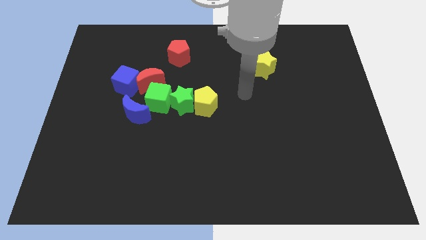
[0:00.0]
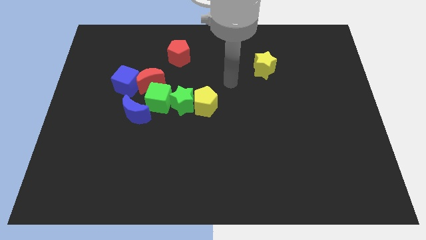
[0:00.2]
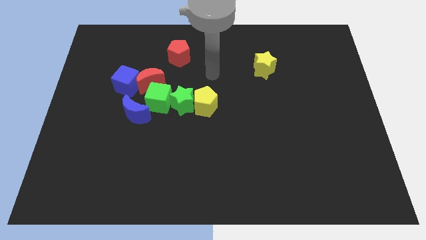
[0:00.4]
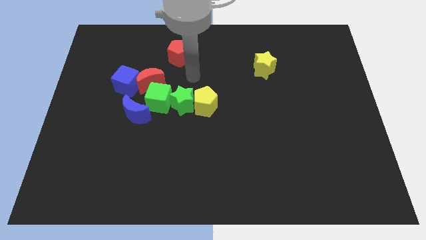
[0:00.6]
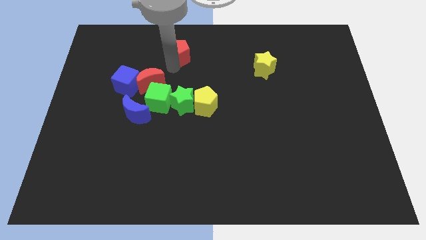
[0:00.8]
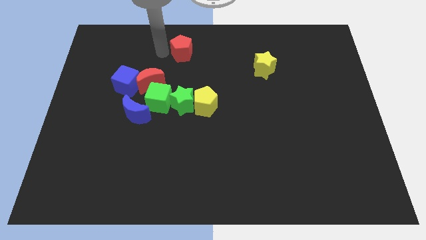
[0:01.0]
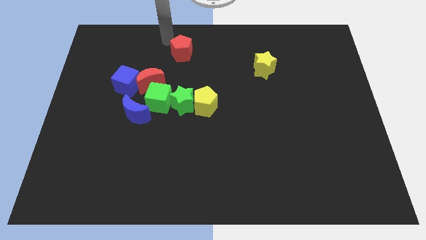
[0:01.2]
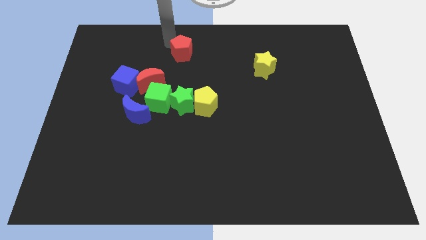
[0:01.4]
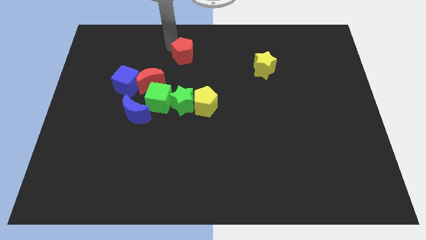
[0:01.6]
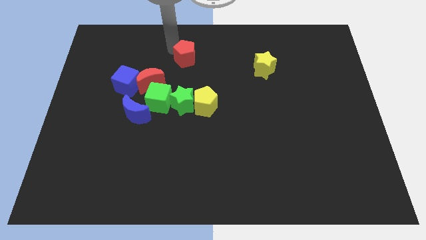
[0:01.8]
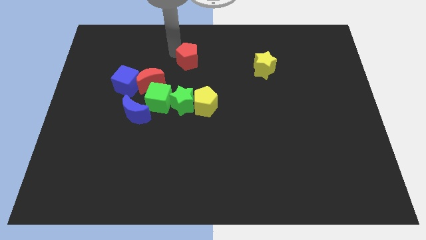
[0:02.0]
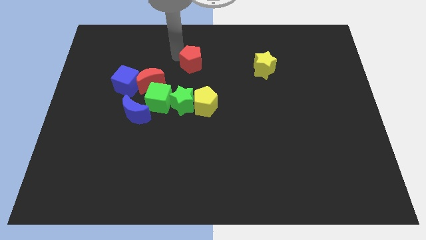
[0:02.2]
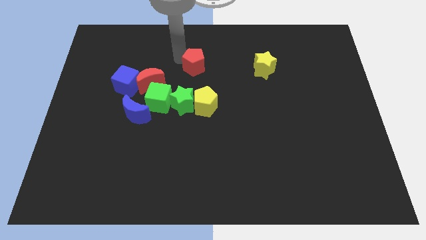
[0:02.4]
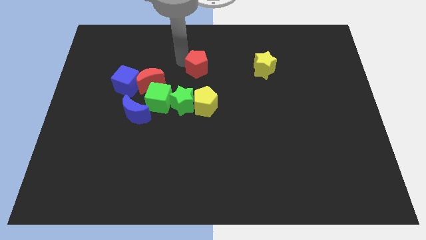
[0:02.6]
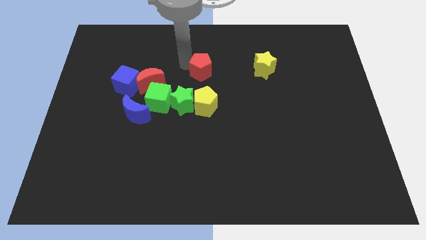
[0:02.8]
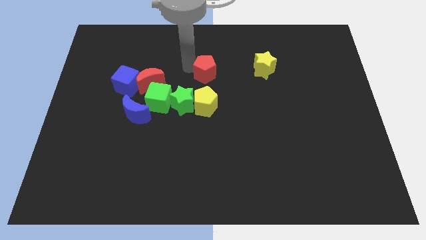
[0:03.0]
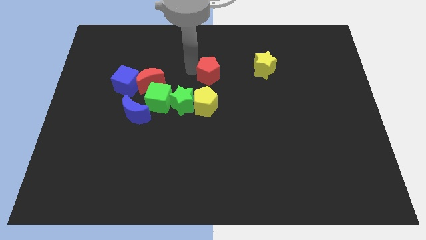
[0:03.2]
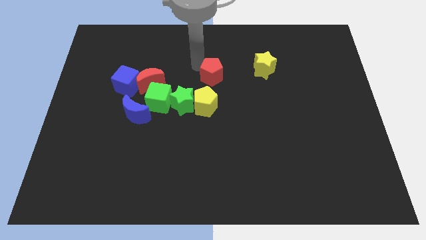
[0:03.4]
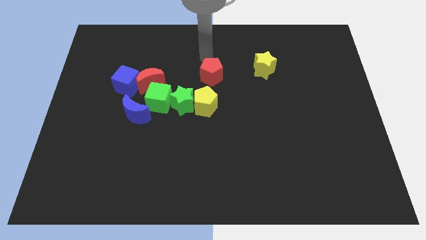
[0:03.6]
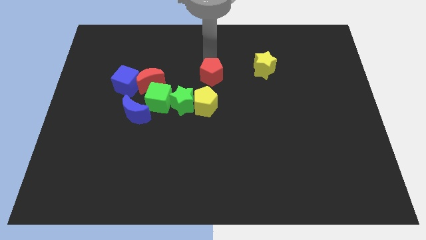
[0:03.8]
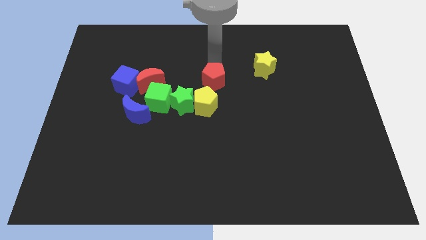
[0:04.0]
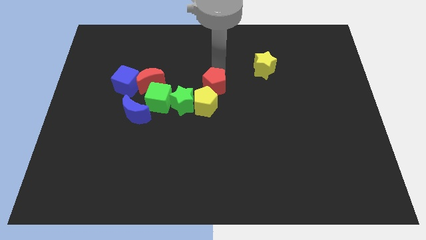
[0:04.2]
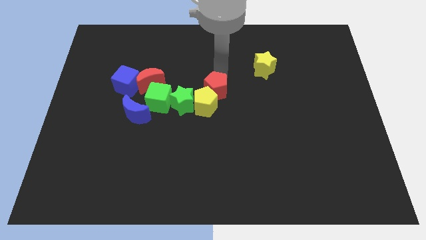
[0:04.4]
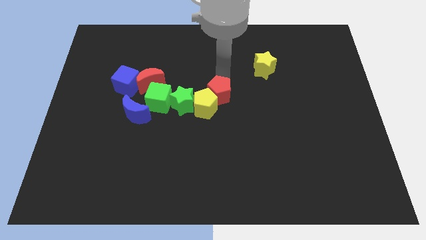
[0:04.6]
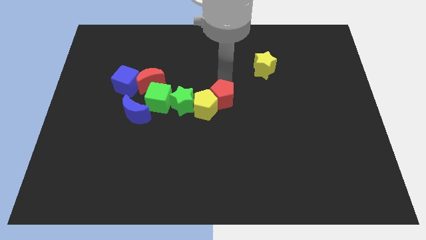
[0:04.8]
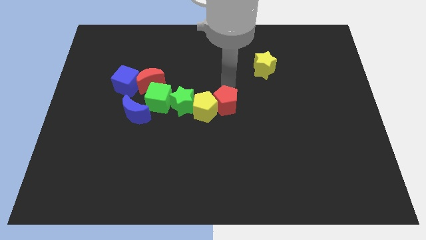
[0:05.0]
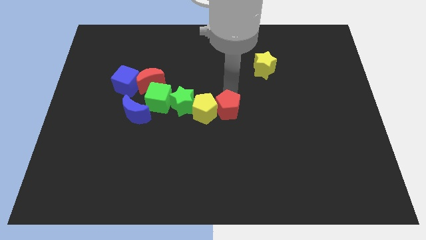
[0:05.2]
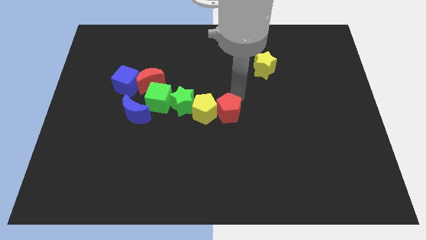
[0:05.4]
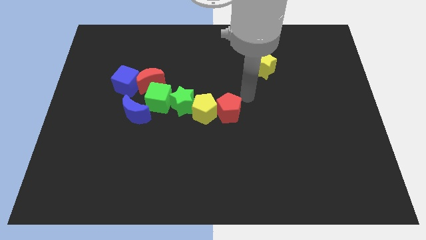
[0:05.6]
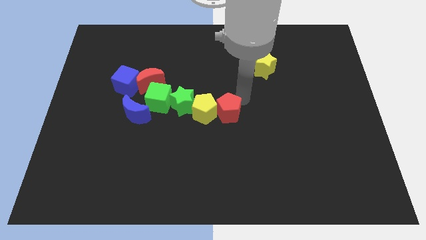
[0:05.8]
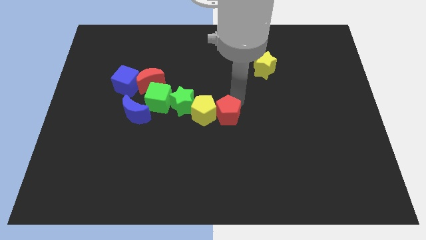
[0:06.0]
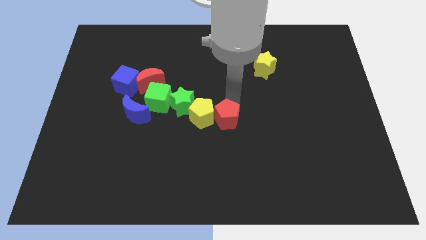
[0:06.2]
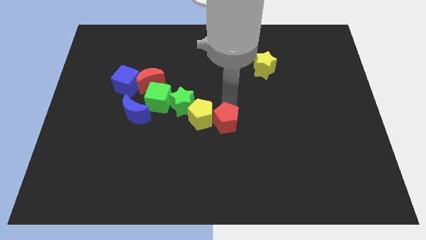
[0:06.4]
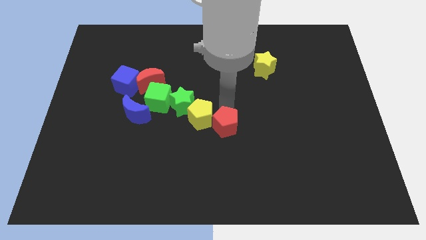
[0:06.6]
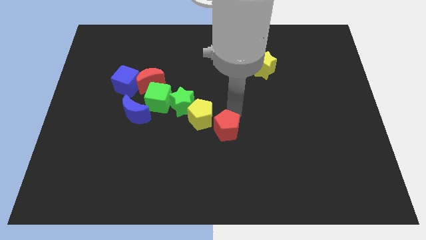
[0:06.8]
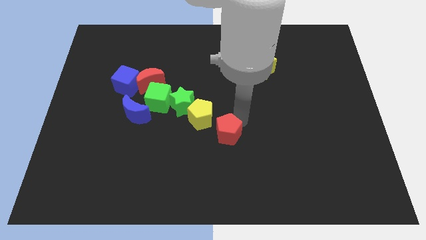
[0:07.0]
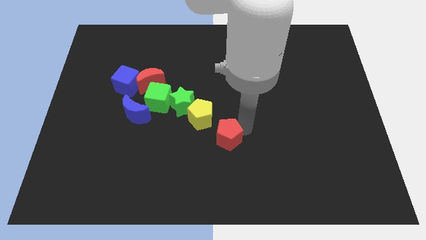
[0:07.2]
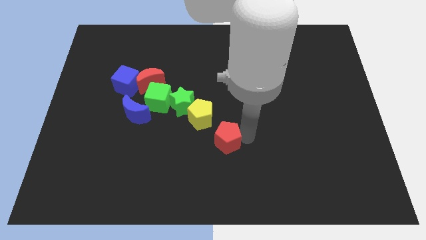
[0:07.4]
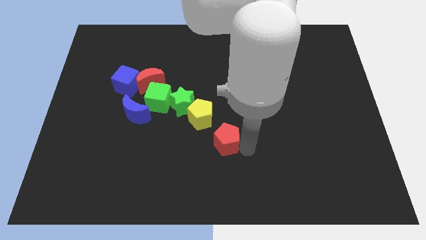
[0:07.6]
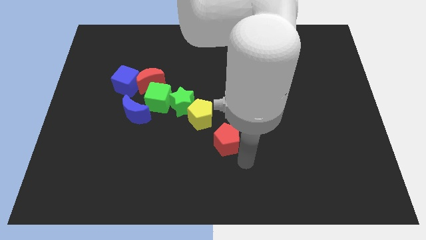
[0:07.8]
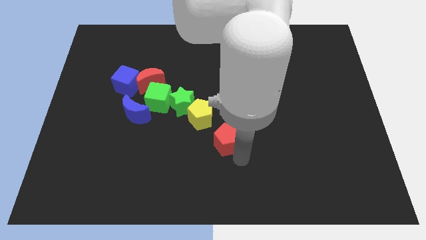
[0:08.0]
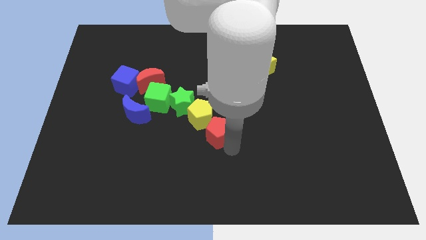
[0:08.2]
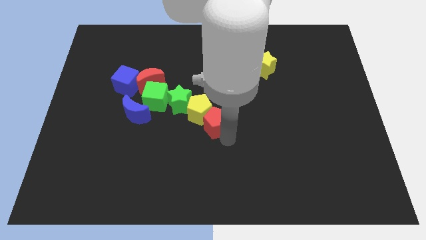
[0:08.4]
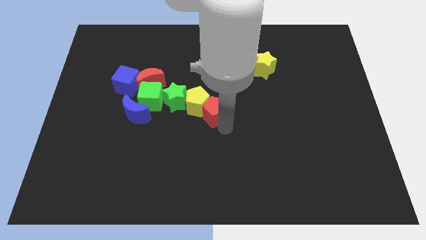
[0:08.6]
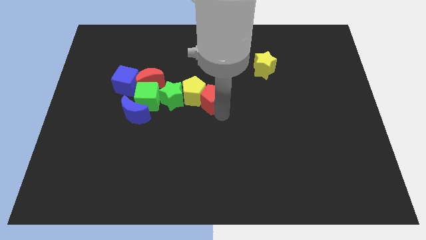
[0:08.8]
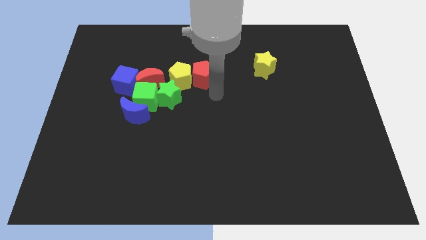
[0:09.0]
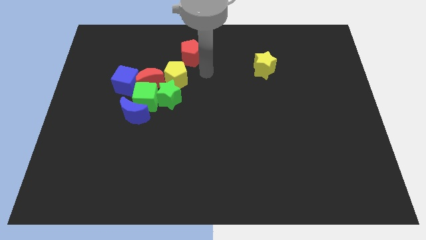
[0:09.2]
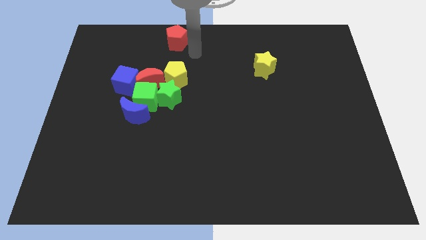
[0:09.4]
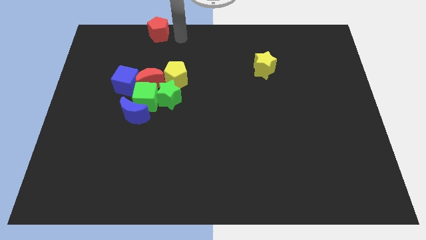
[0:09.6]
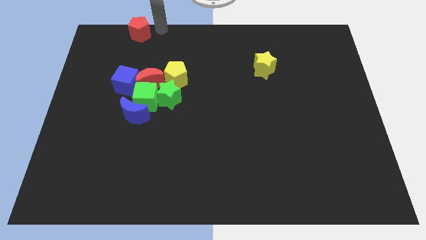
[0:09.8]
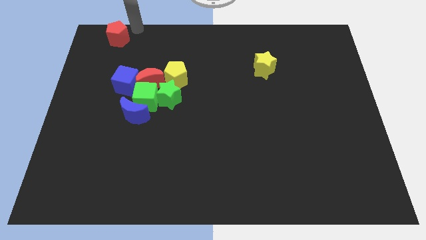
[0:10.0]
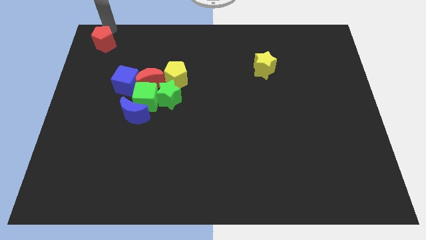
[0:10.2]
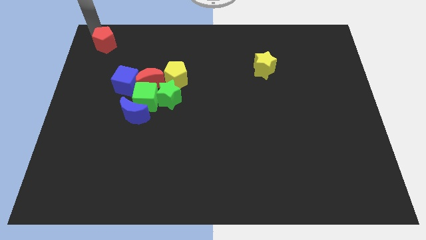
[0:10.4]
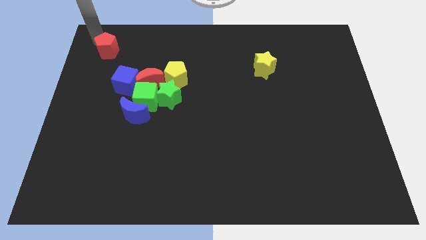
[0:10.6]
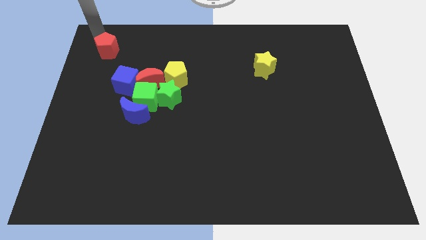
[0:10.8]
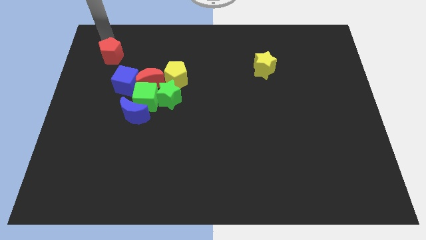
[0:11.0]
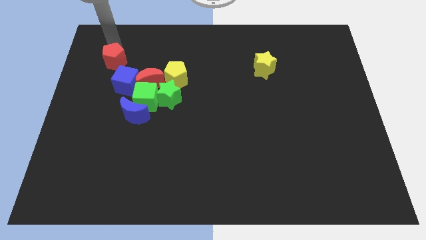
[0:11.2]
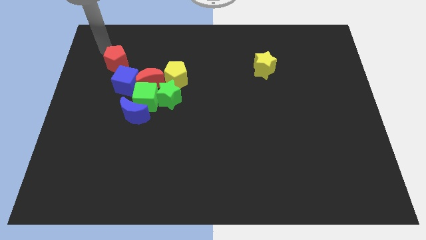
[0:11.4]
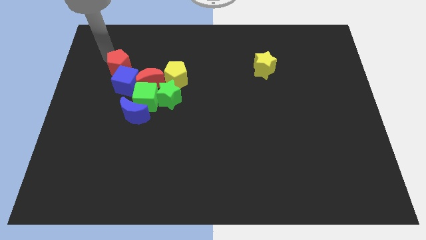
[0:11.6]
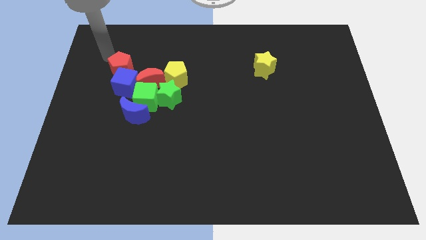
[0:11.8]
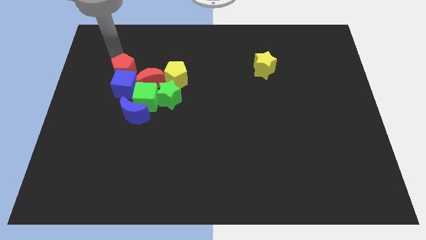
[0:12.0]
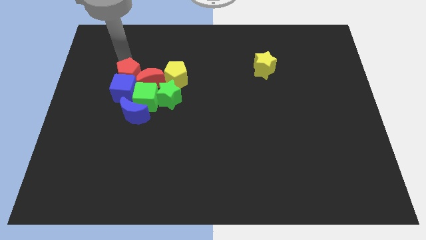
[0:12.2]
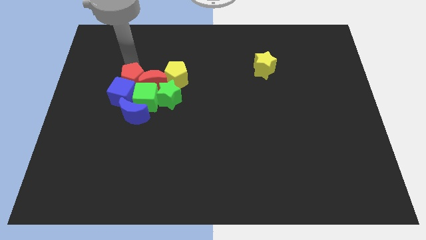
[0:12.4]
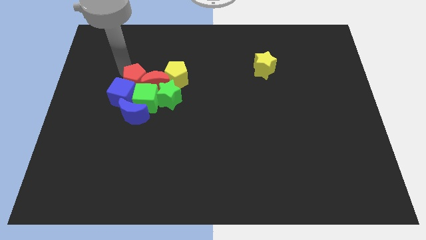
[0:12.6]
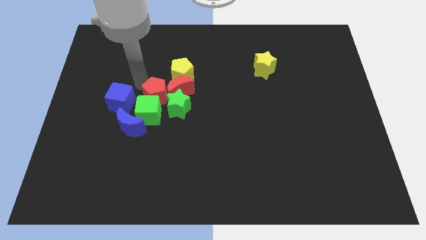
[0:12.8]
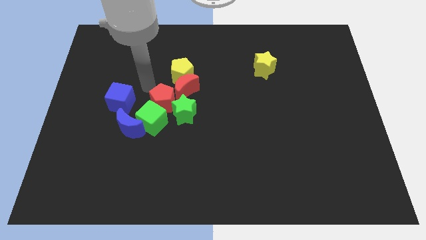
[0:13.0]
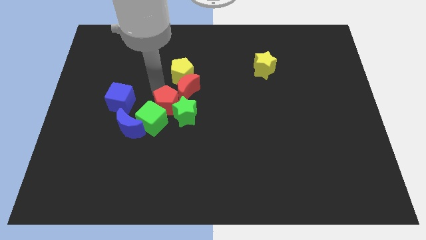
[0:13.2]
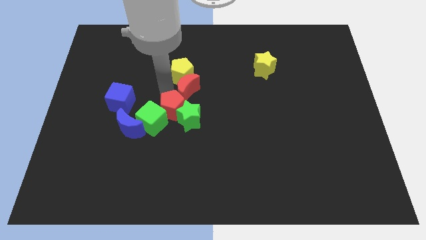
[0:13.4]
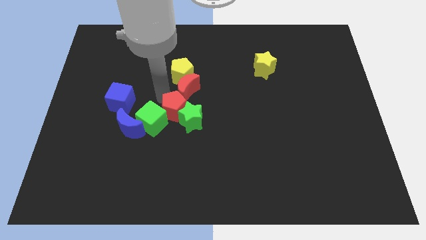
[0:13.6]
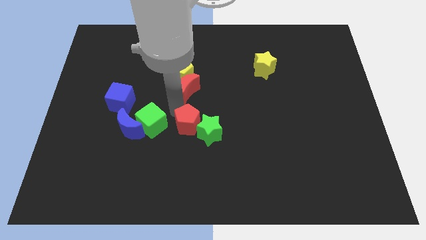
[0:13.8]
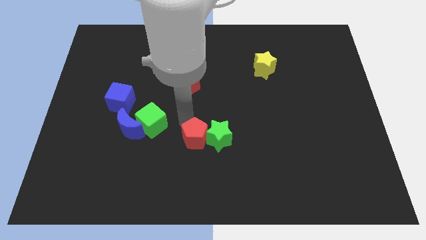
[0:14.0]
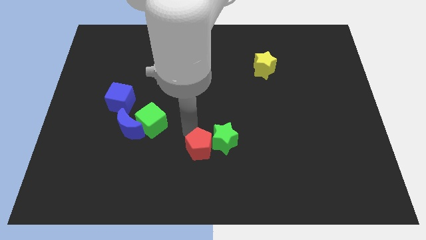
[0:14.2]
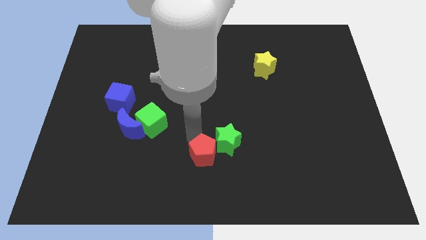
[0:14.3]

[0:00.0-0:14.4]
push the red pentagon to the bottom
